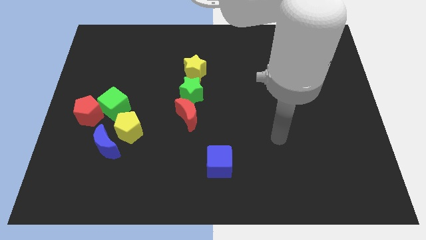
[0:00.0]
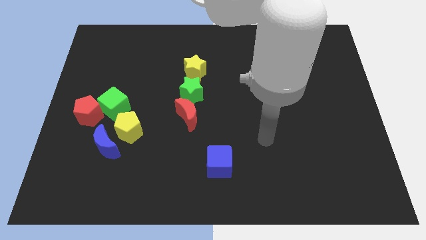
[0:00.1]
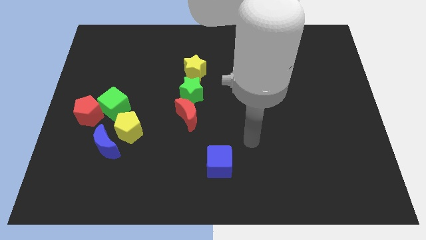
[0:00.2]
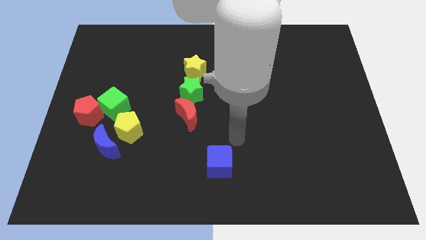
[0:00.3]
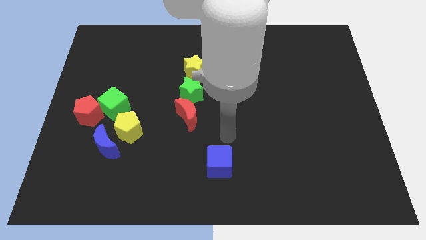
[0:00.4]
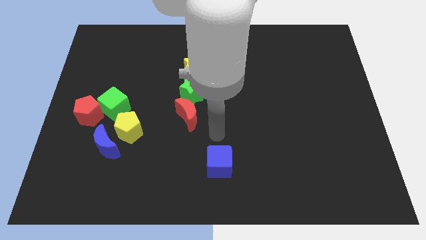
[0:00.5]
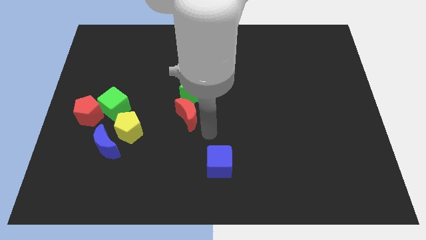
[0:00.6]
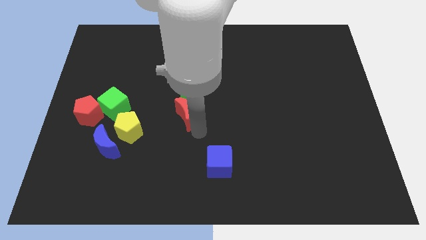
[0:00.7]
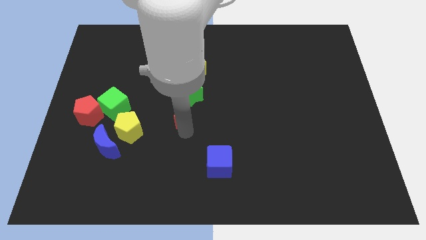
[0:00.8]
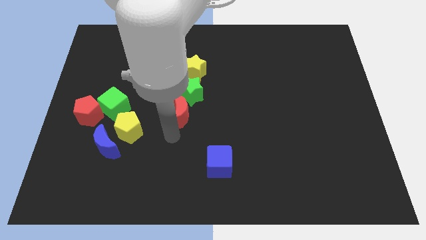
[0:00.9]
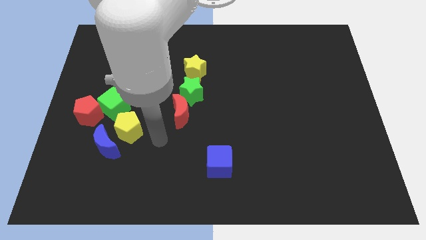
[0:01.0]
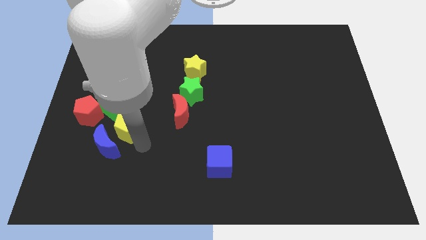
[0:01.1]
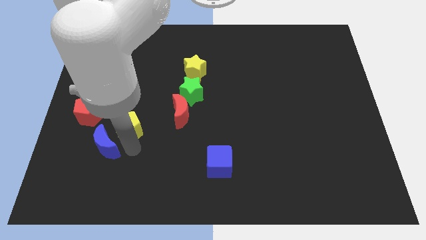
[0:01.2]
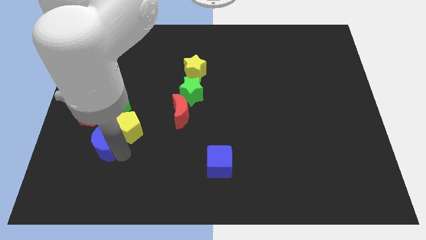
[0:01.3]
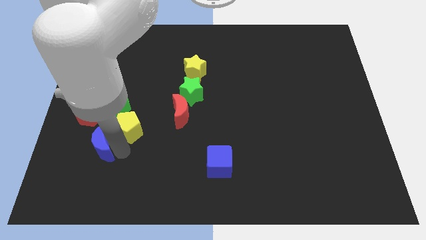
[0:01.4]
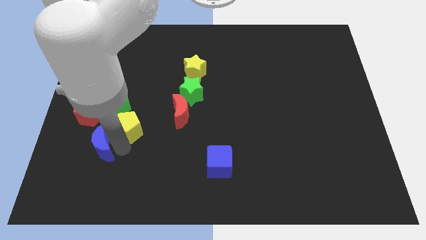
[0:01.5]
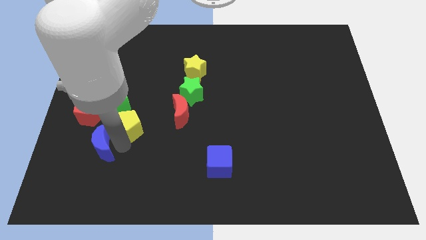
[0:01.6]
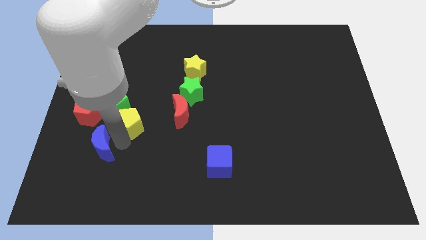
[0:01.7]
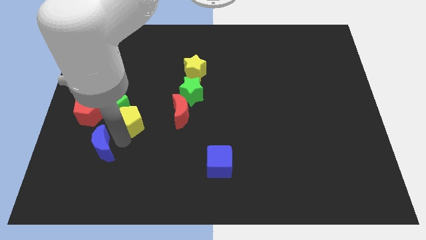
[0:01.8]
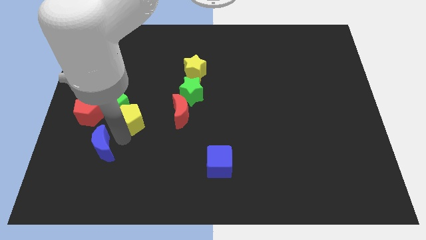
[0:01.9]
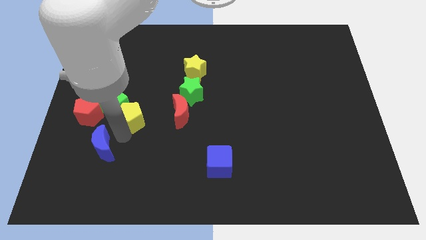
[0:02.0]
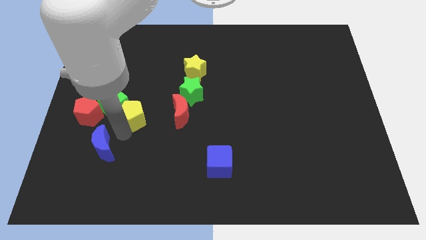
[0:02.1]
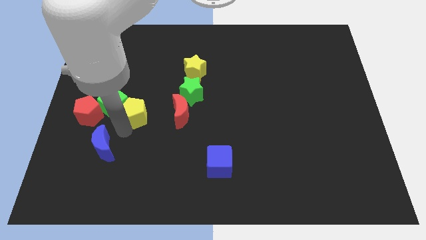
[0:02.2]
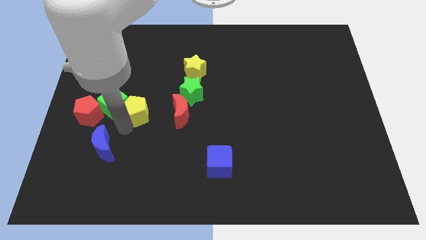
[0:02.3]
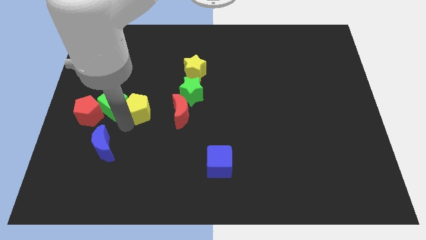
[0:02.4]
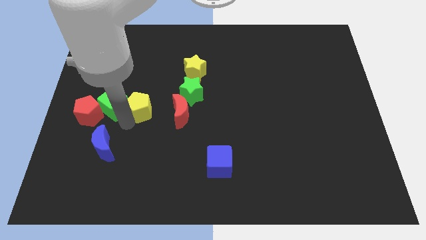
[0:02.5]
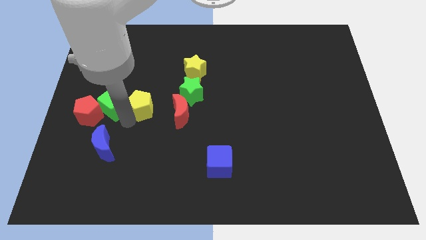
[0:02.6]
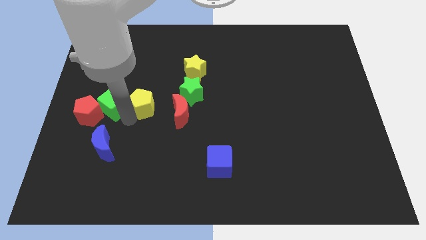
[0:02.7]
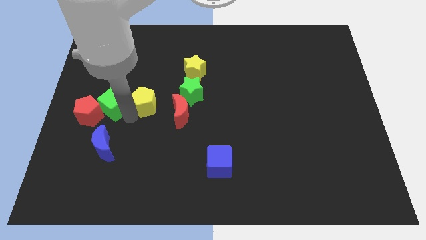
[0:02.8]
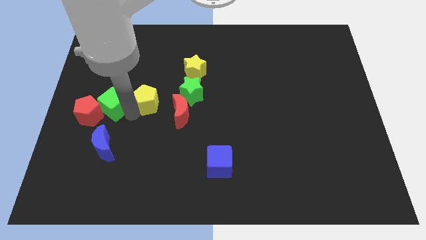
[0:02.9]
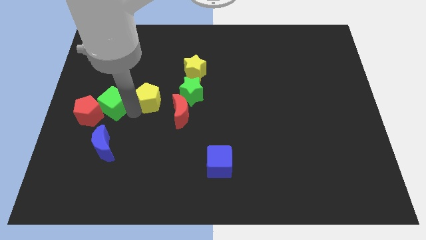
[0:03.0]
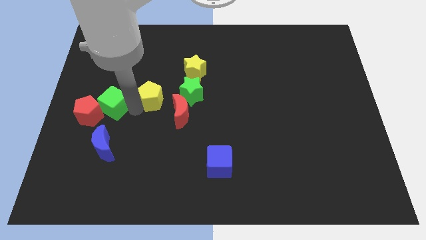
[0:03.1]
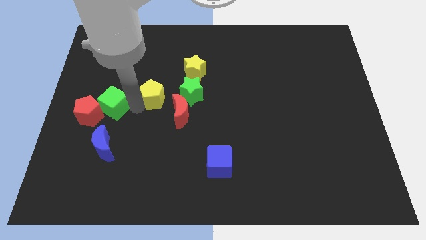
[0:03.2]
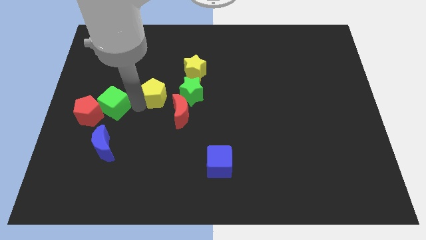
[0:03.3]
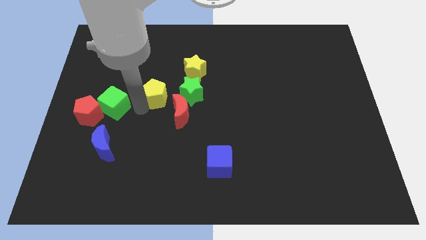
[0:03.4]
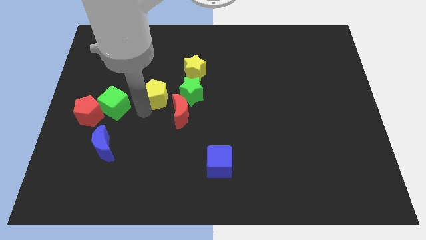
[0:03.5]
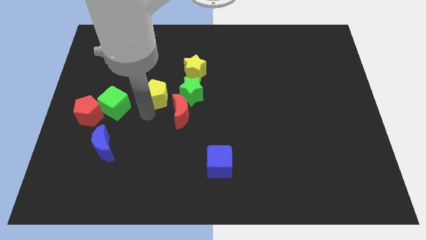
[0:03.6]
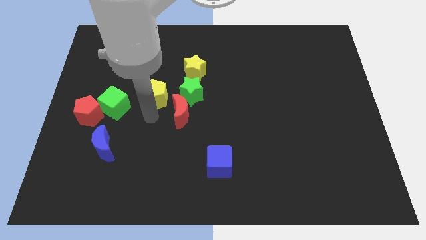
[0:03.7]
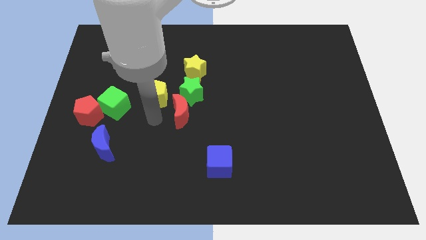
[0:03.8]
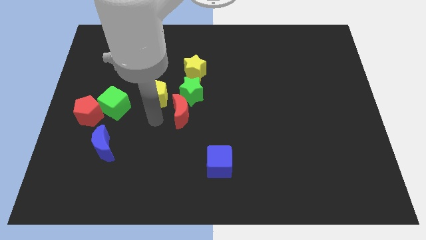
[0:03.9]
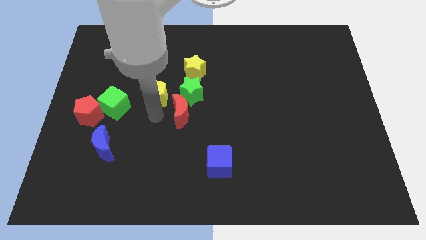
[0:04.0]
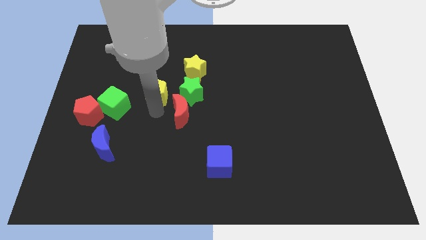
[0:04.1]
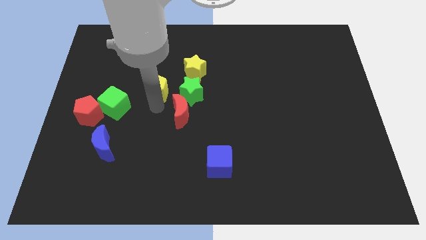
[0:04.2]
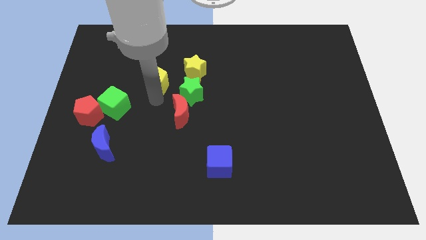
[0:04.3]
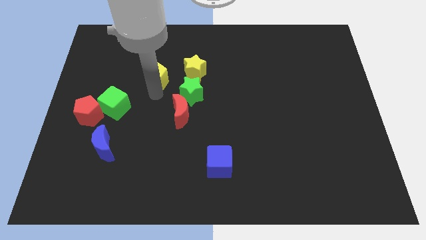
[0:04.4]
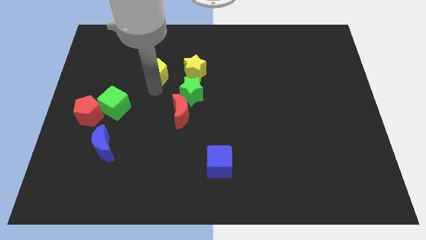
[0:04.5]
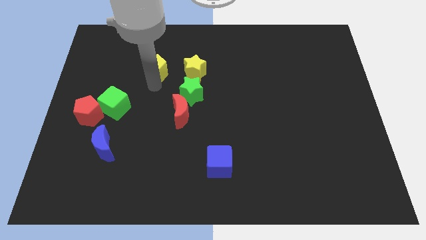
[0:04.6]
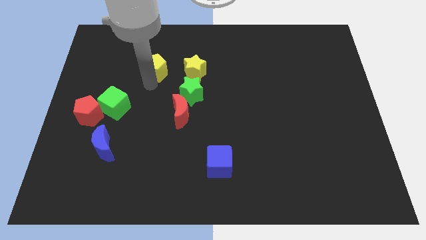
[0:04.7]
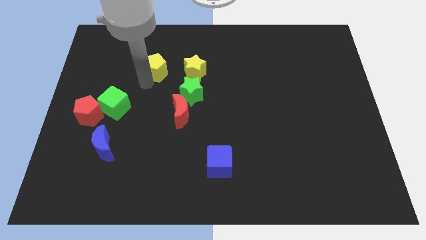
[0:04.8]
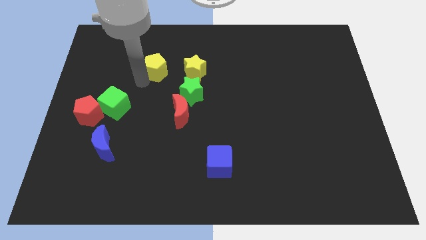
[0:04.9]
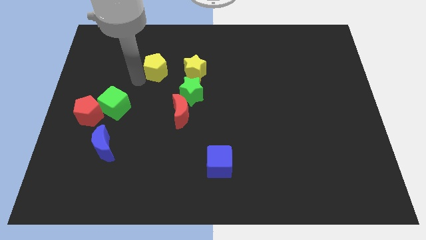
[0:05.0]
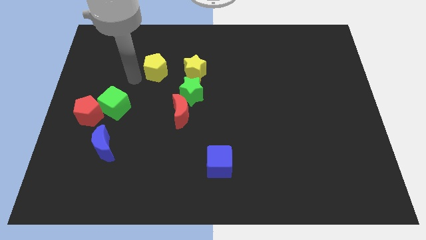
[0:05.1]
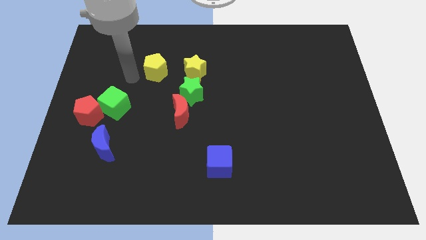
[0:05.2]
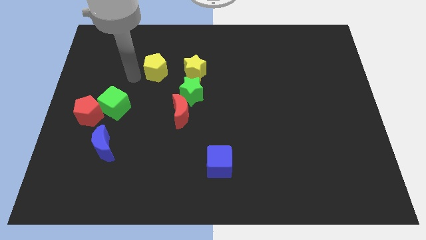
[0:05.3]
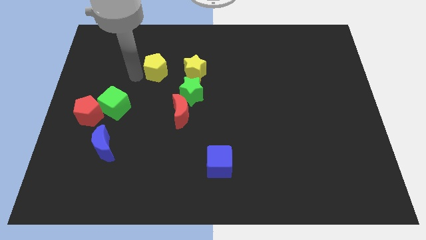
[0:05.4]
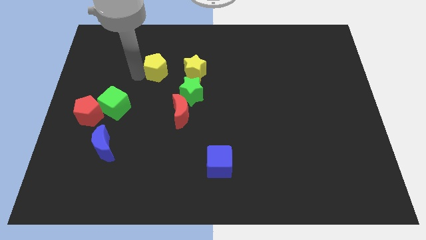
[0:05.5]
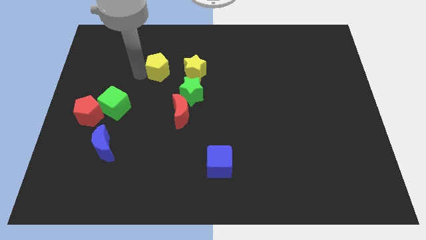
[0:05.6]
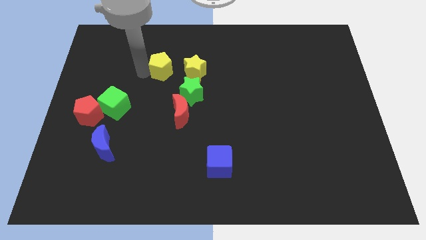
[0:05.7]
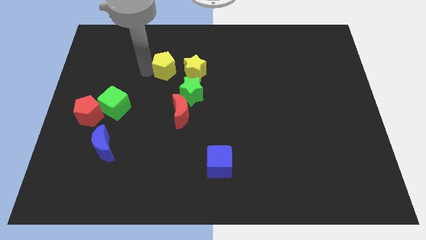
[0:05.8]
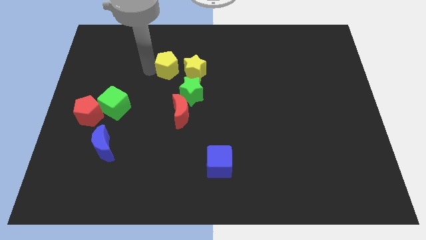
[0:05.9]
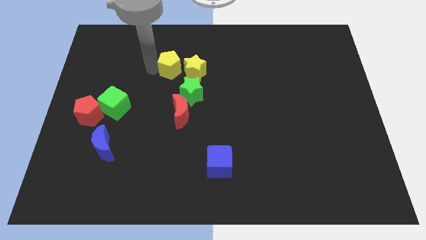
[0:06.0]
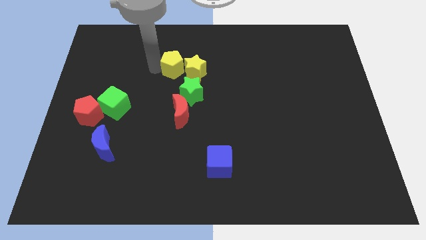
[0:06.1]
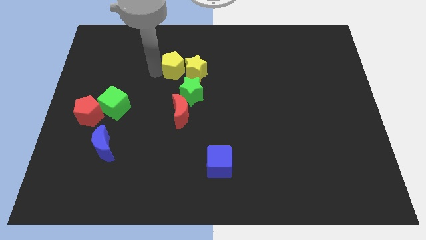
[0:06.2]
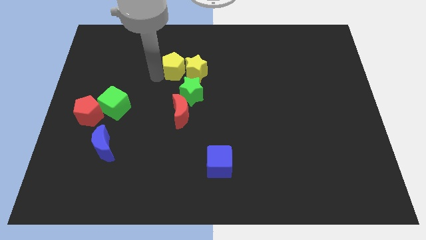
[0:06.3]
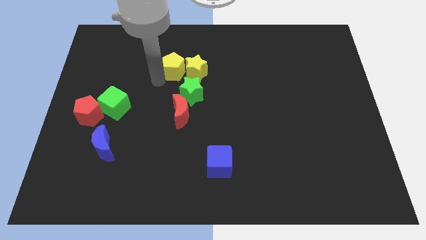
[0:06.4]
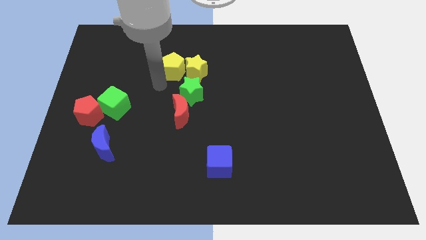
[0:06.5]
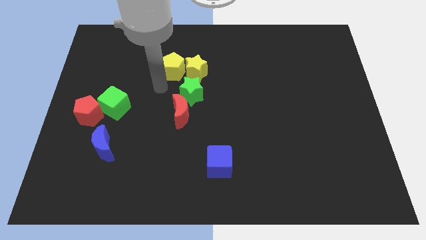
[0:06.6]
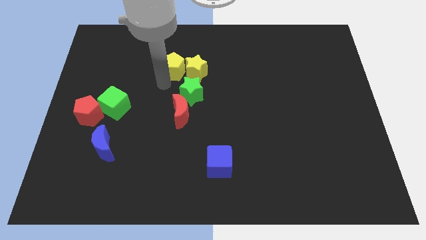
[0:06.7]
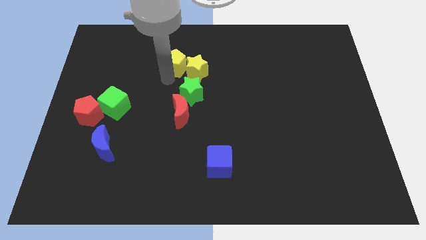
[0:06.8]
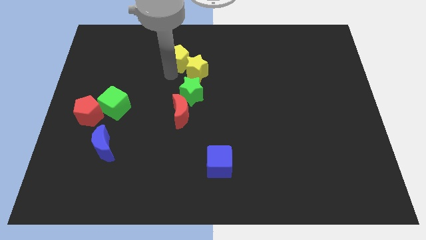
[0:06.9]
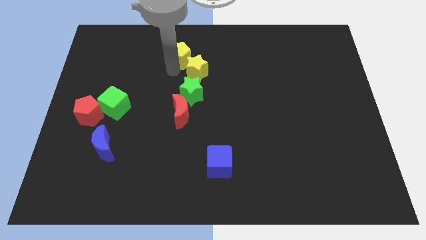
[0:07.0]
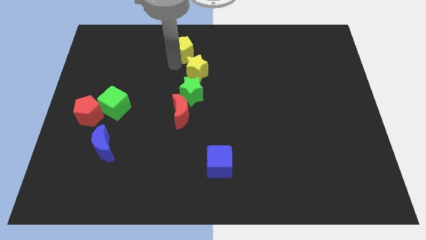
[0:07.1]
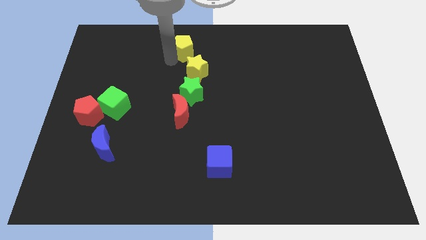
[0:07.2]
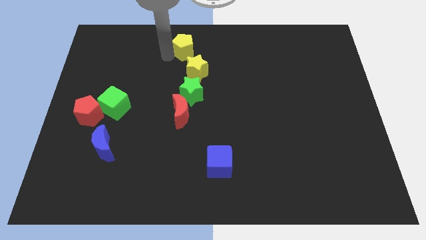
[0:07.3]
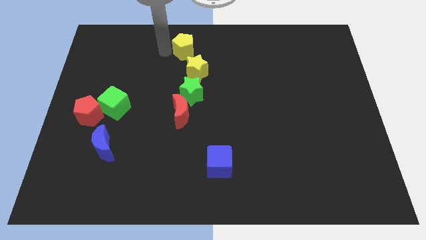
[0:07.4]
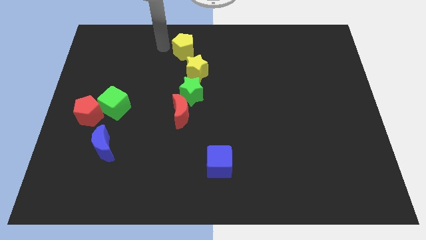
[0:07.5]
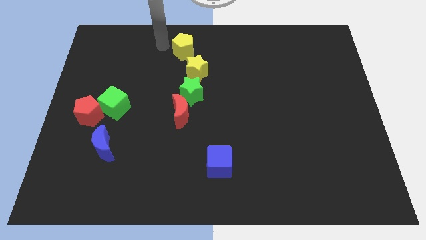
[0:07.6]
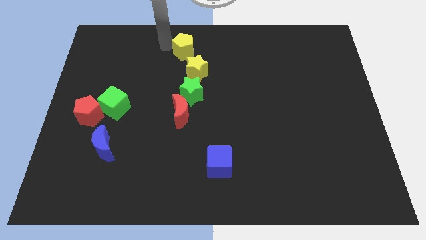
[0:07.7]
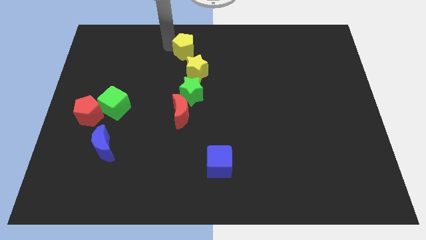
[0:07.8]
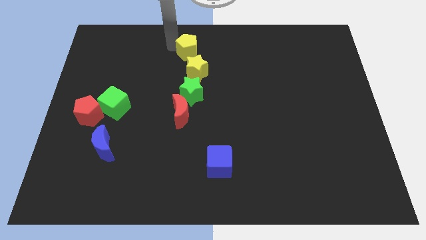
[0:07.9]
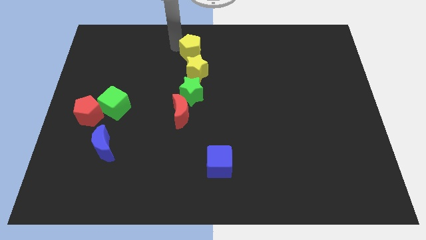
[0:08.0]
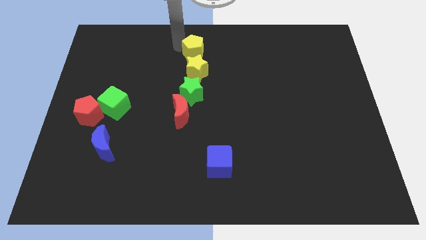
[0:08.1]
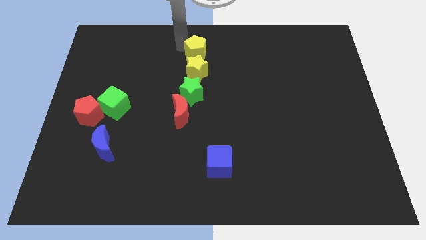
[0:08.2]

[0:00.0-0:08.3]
slide the yellow pentagon to the top right of the yellow star
